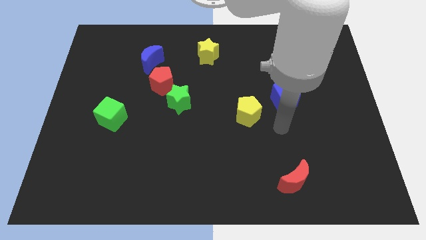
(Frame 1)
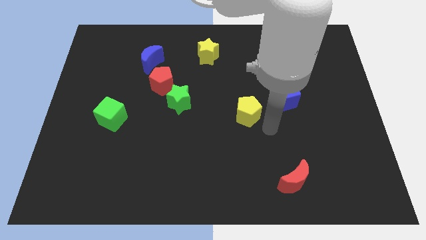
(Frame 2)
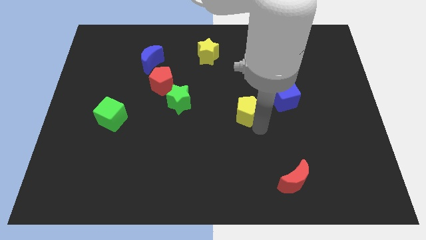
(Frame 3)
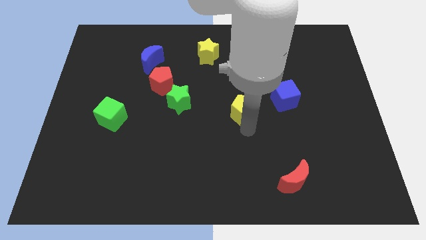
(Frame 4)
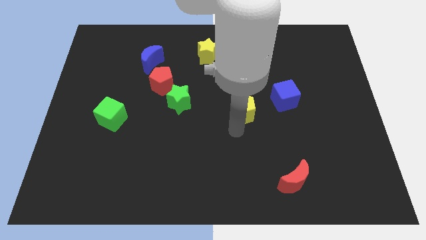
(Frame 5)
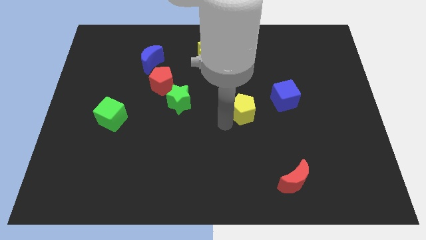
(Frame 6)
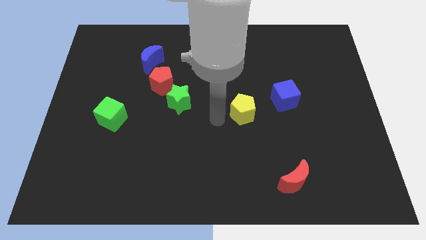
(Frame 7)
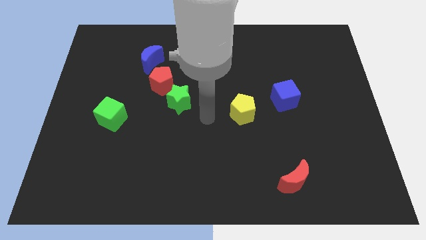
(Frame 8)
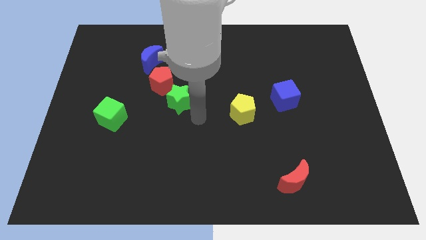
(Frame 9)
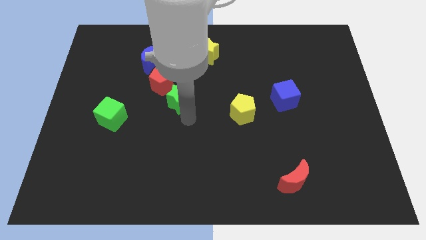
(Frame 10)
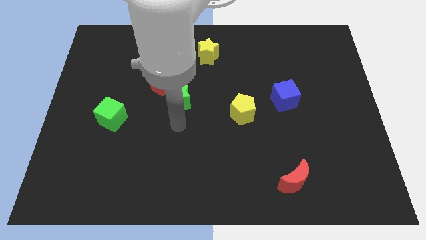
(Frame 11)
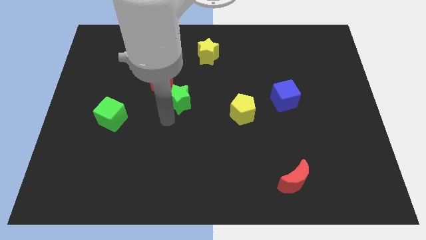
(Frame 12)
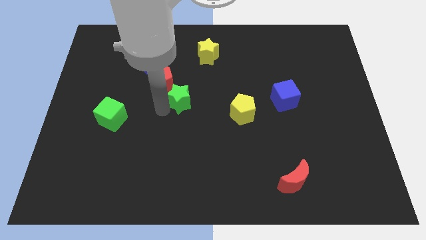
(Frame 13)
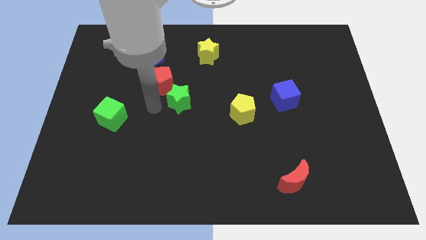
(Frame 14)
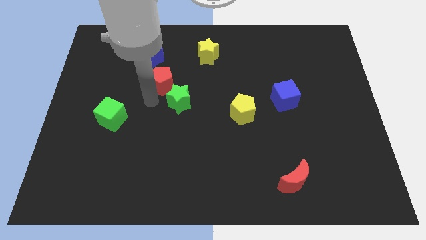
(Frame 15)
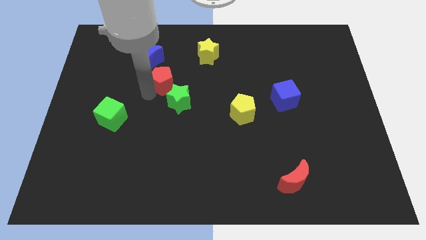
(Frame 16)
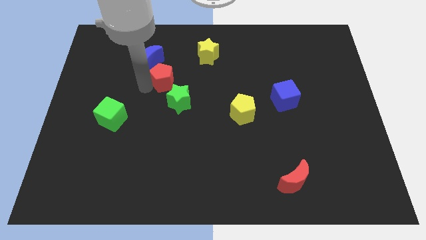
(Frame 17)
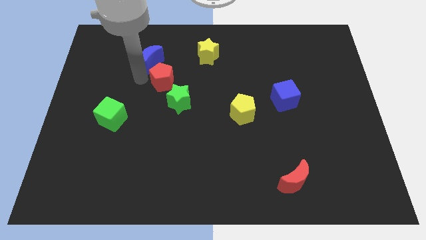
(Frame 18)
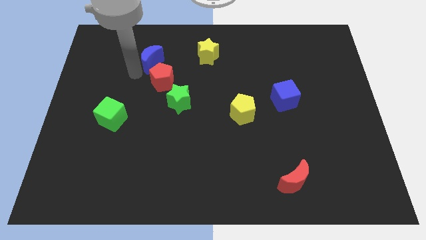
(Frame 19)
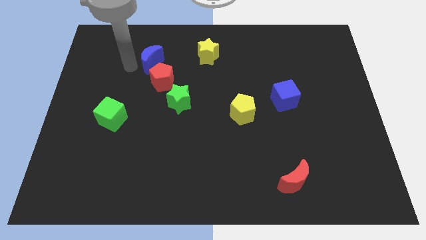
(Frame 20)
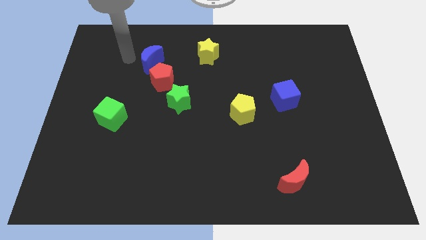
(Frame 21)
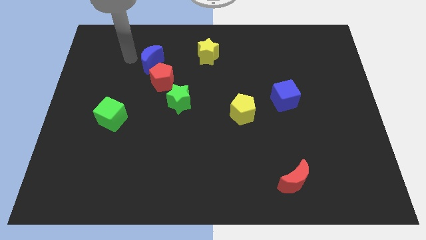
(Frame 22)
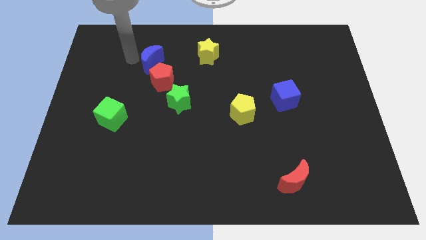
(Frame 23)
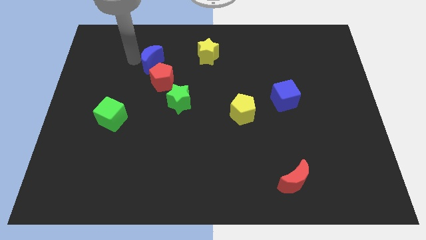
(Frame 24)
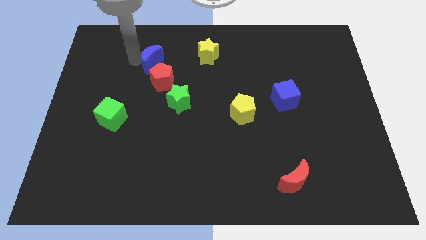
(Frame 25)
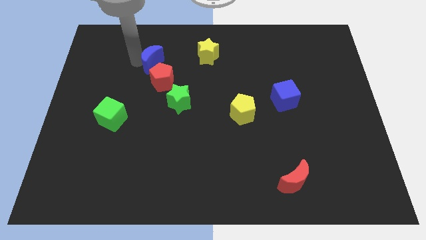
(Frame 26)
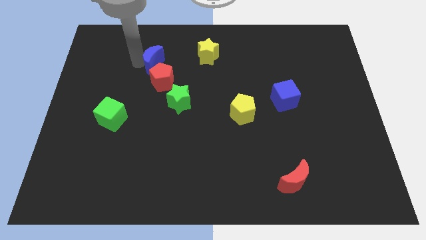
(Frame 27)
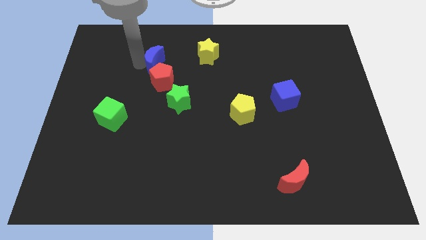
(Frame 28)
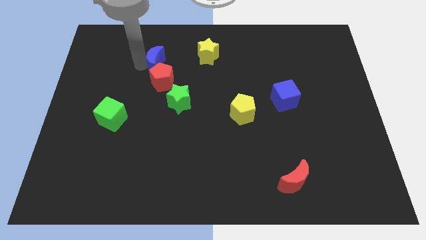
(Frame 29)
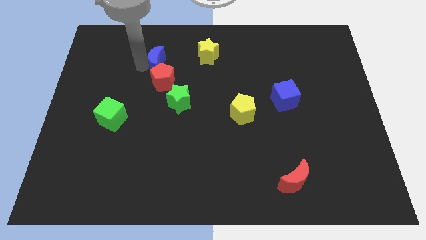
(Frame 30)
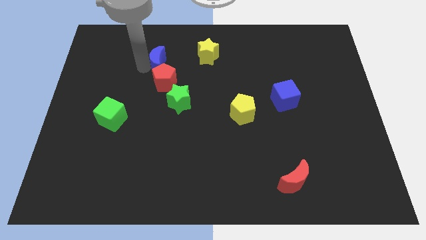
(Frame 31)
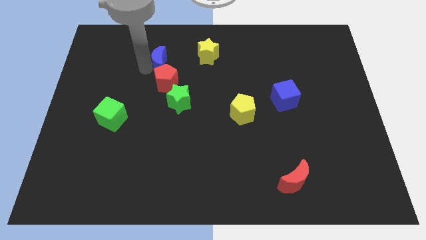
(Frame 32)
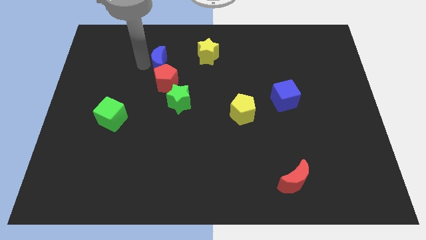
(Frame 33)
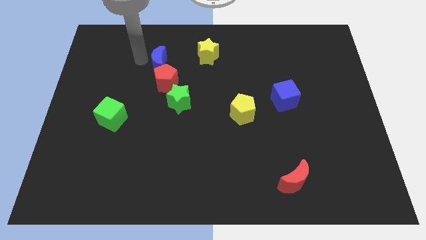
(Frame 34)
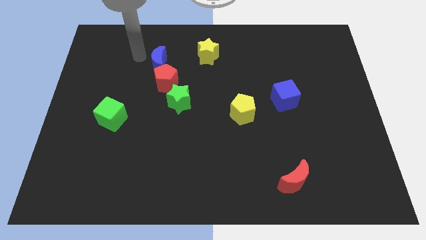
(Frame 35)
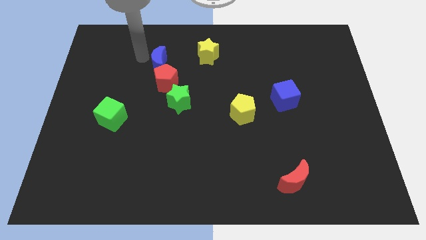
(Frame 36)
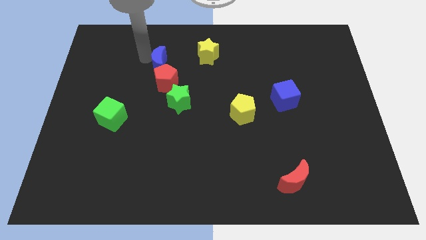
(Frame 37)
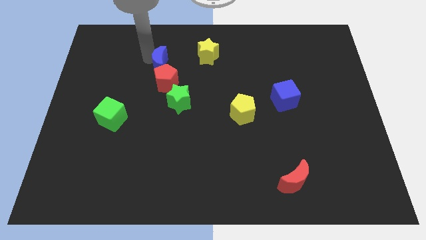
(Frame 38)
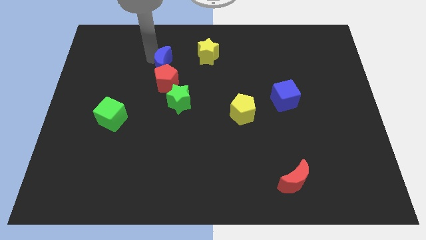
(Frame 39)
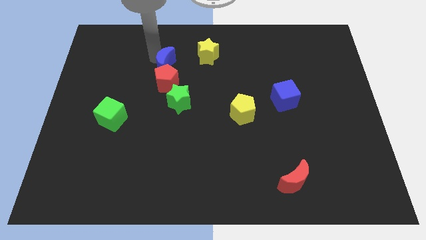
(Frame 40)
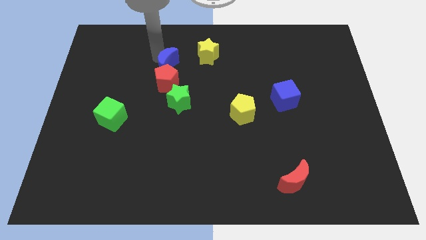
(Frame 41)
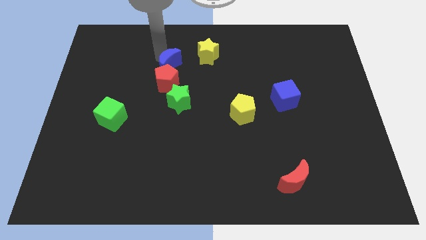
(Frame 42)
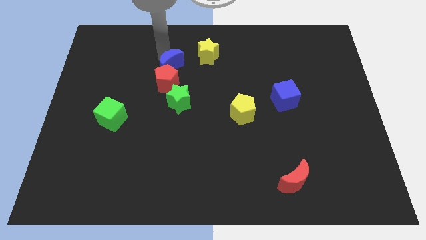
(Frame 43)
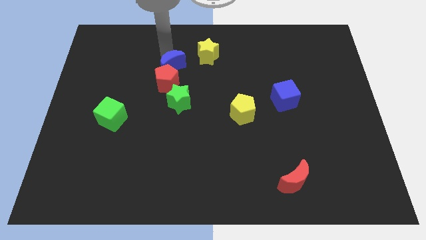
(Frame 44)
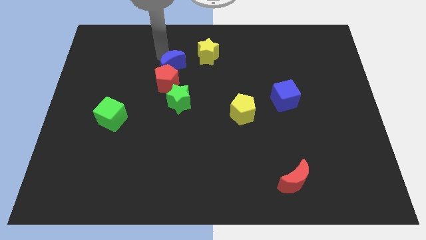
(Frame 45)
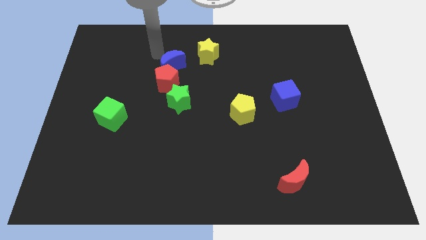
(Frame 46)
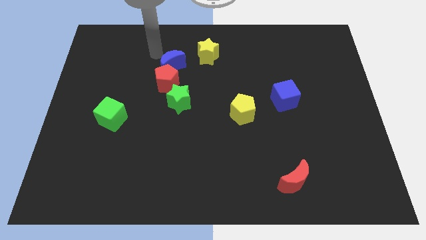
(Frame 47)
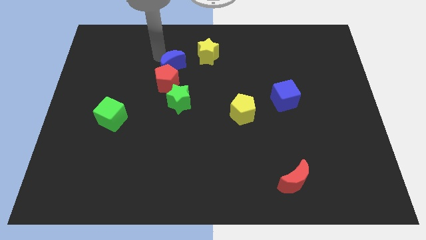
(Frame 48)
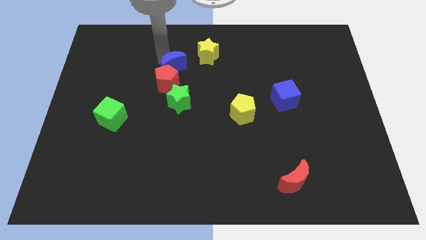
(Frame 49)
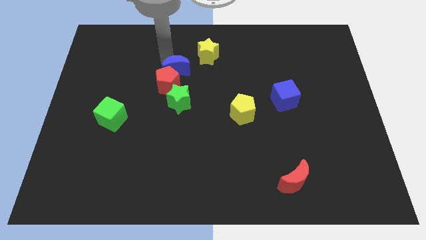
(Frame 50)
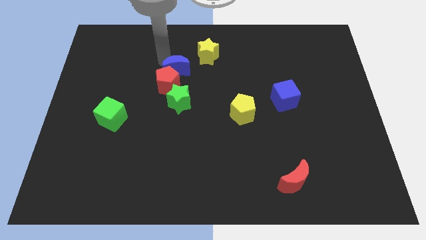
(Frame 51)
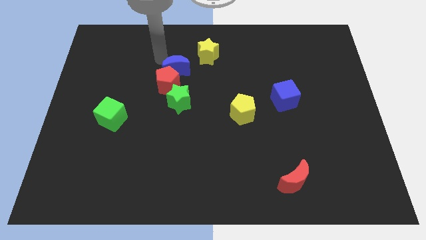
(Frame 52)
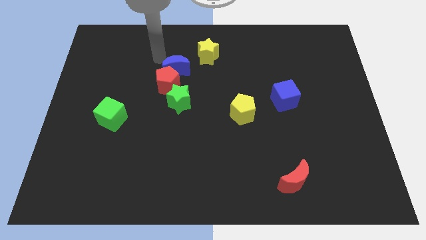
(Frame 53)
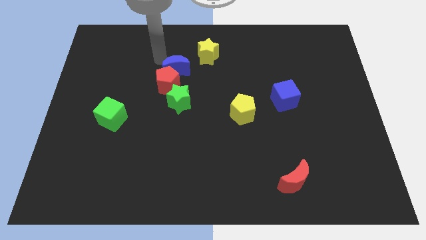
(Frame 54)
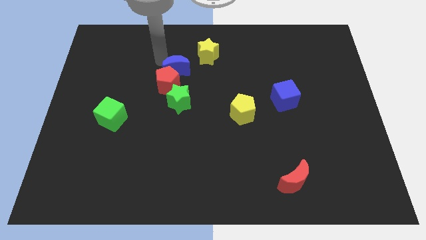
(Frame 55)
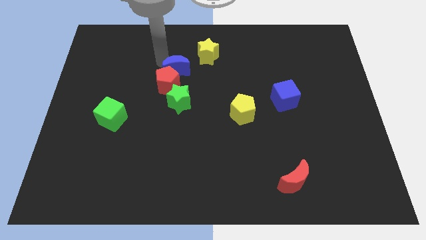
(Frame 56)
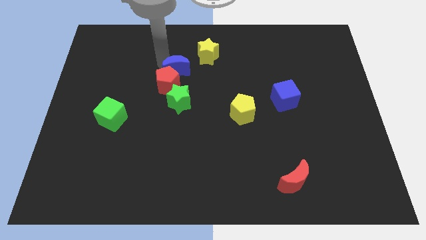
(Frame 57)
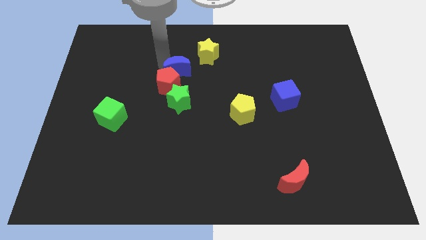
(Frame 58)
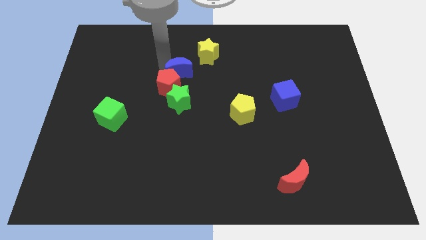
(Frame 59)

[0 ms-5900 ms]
slide the blue moon to the middle of the board

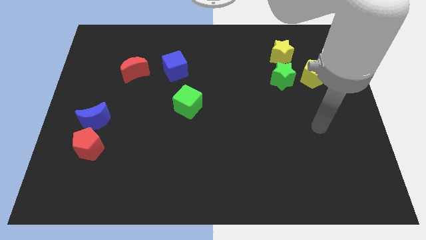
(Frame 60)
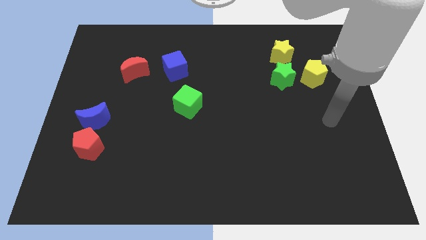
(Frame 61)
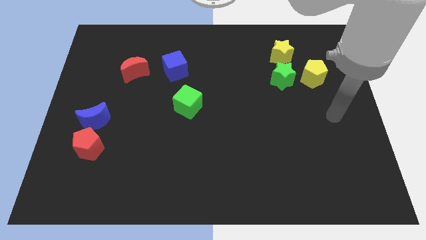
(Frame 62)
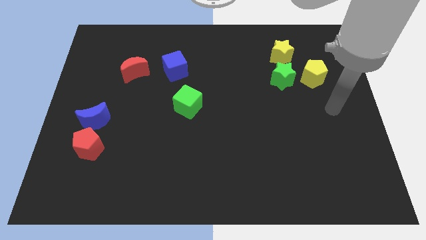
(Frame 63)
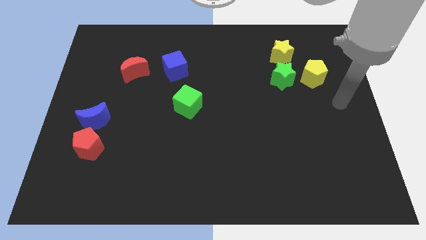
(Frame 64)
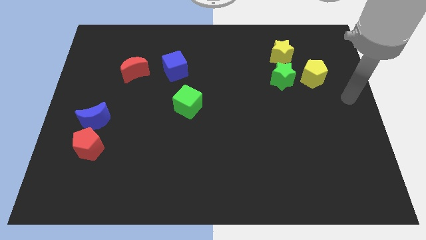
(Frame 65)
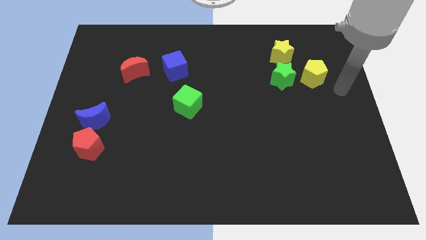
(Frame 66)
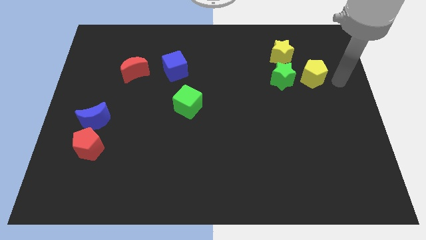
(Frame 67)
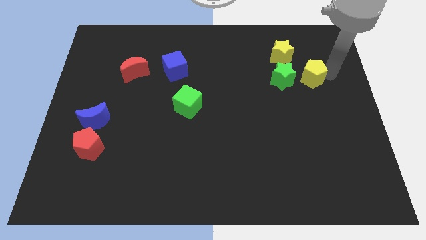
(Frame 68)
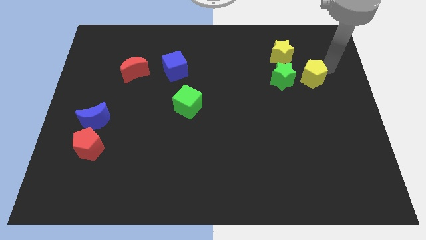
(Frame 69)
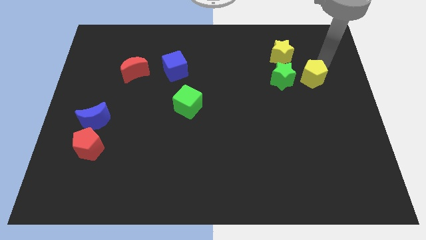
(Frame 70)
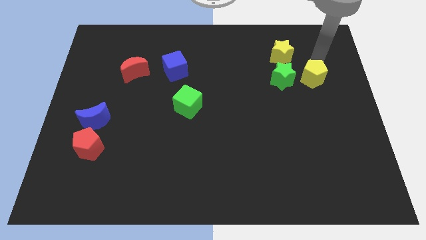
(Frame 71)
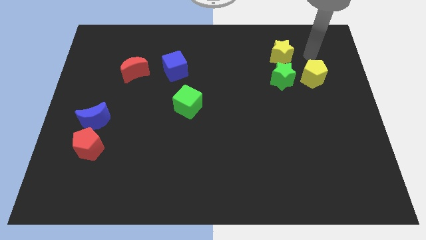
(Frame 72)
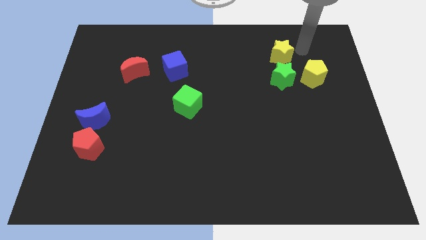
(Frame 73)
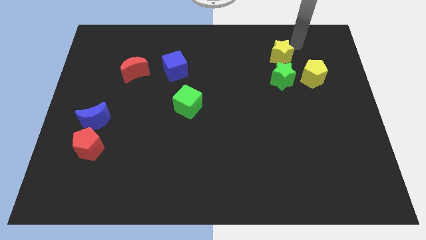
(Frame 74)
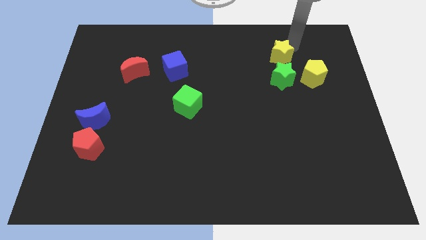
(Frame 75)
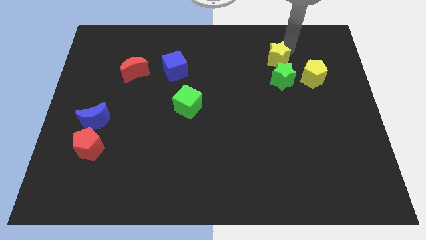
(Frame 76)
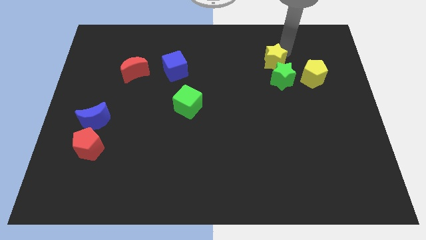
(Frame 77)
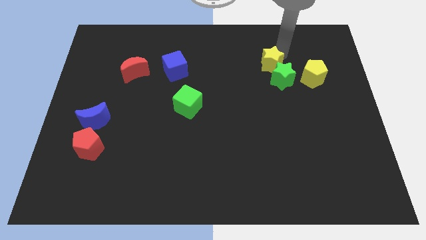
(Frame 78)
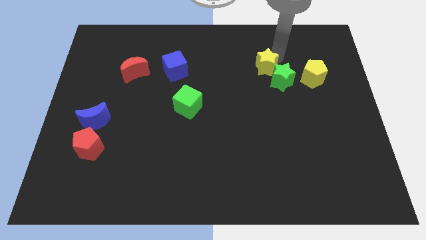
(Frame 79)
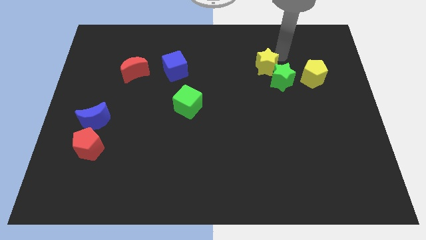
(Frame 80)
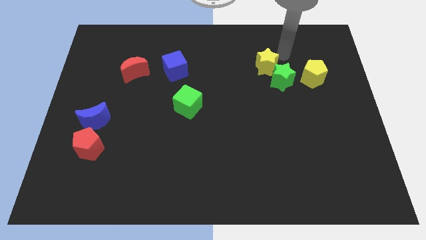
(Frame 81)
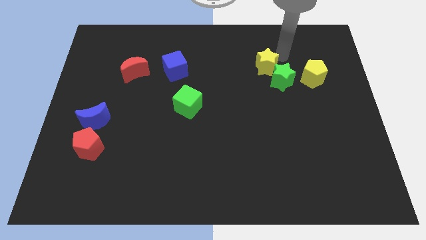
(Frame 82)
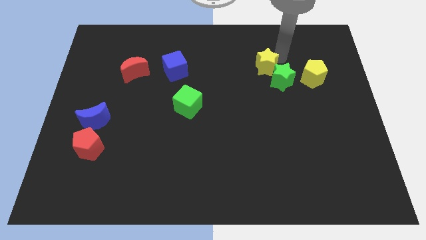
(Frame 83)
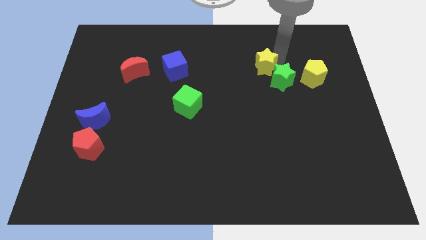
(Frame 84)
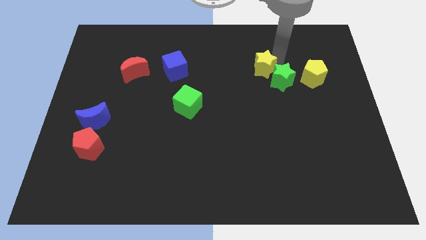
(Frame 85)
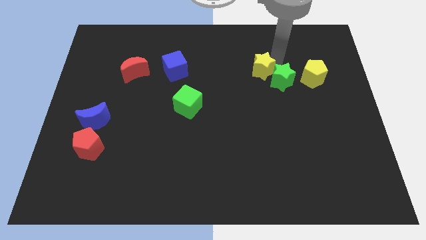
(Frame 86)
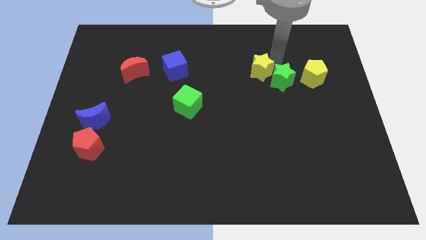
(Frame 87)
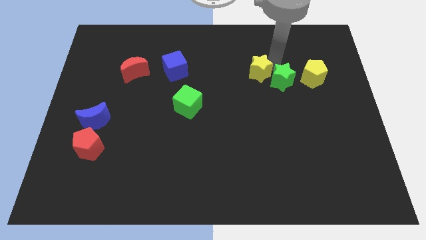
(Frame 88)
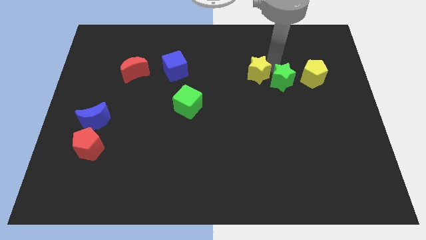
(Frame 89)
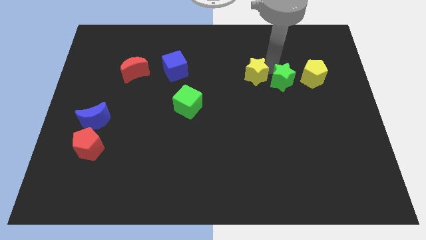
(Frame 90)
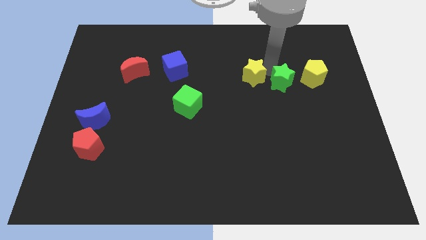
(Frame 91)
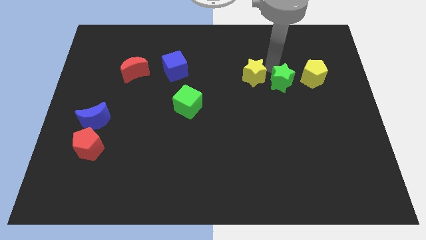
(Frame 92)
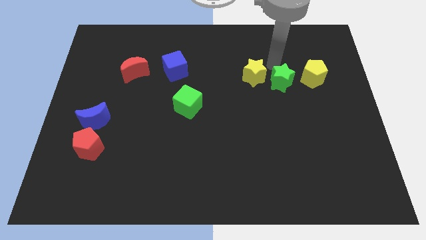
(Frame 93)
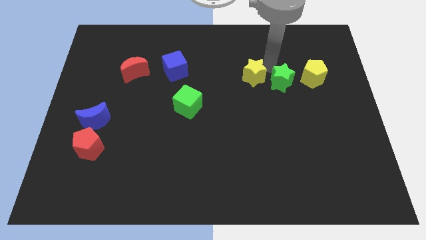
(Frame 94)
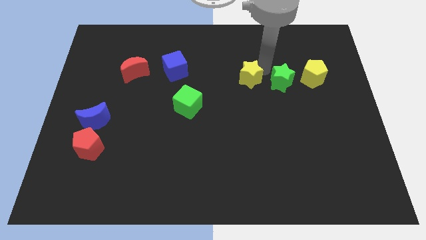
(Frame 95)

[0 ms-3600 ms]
push the yellow star to the middle of the board
